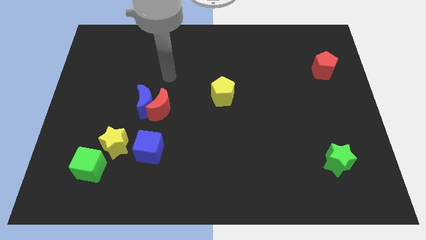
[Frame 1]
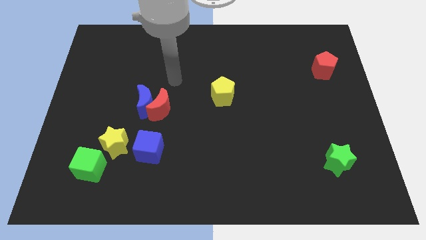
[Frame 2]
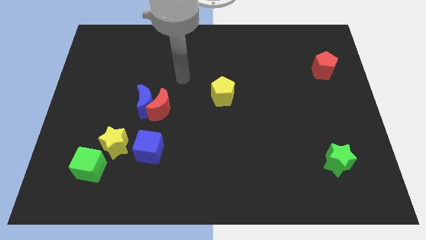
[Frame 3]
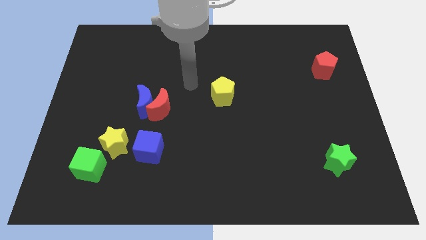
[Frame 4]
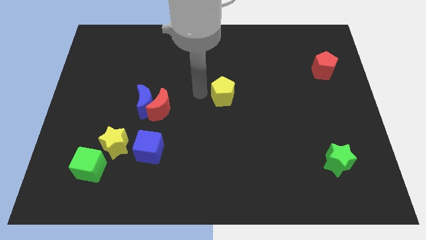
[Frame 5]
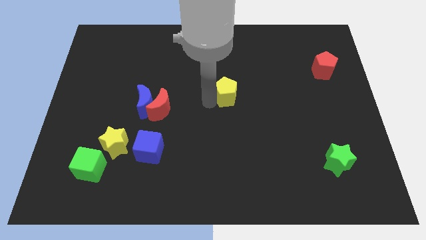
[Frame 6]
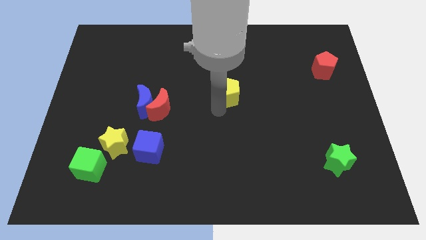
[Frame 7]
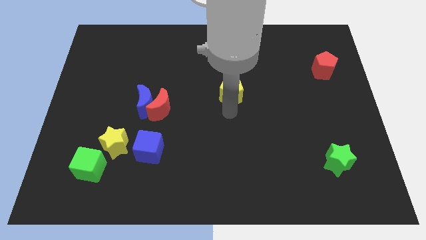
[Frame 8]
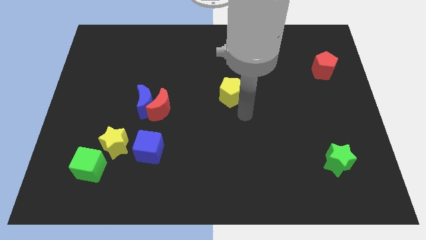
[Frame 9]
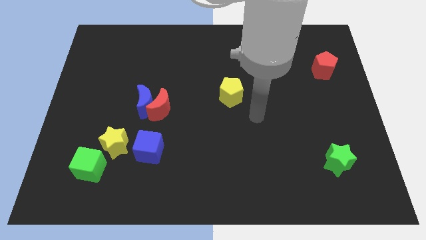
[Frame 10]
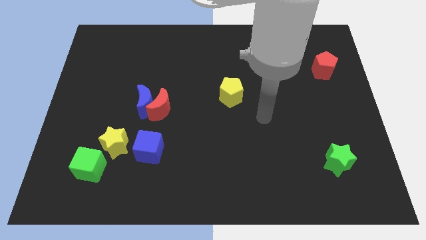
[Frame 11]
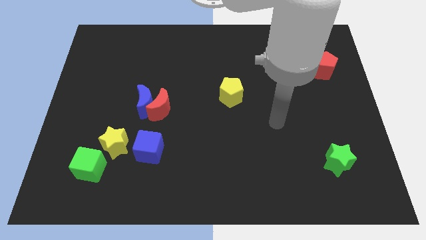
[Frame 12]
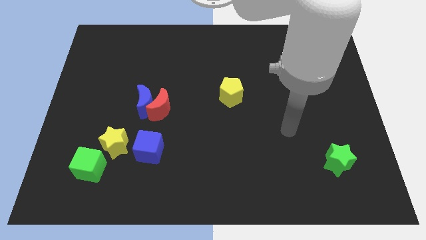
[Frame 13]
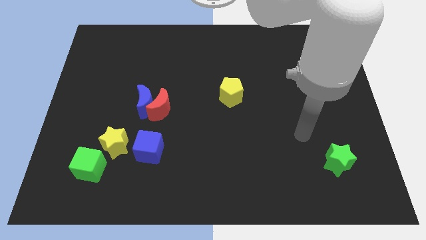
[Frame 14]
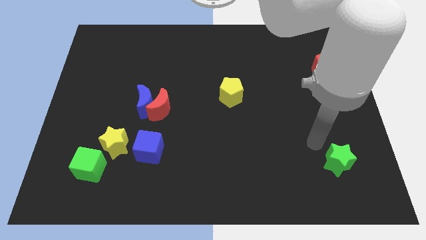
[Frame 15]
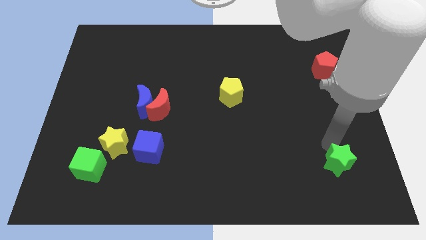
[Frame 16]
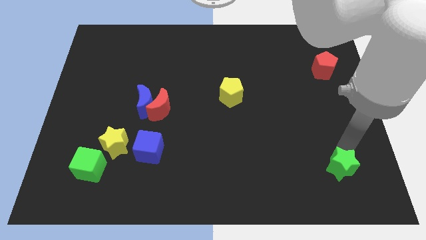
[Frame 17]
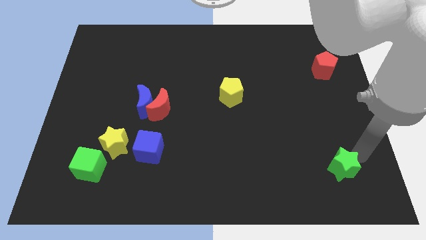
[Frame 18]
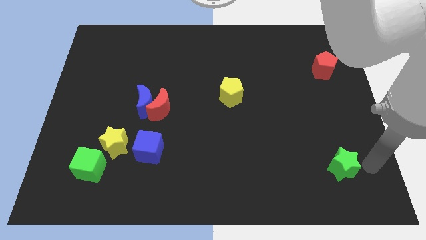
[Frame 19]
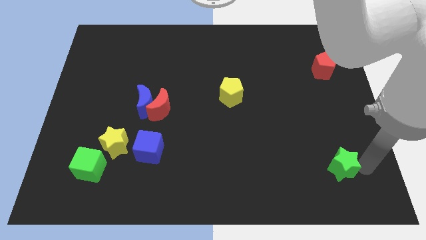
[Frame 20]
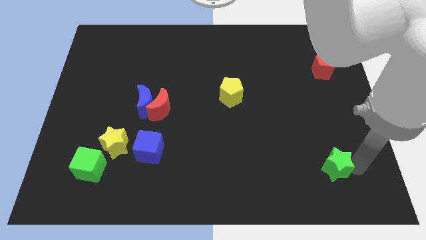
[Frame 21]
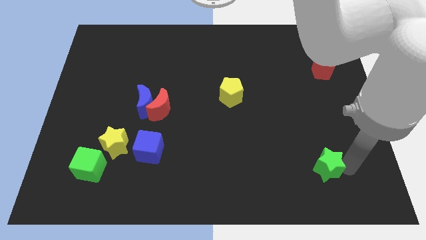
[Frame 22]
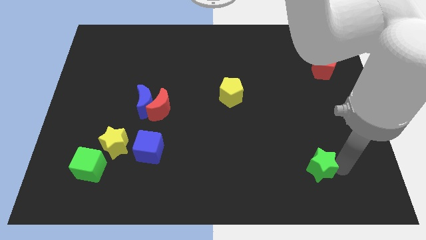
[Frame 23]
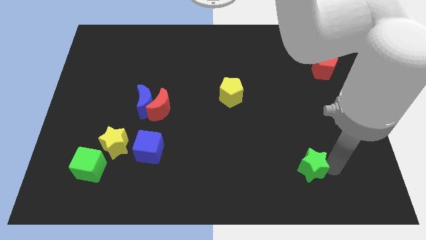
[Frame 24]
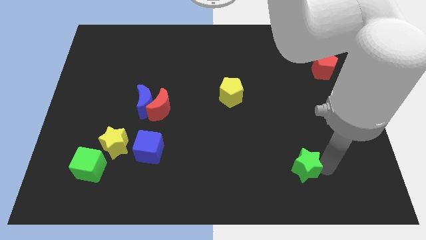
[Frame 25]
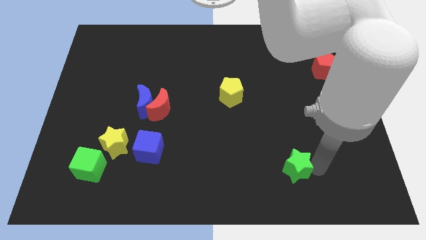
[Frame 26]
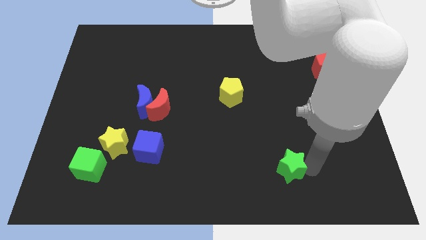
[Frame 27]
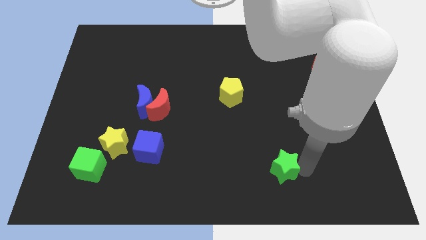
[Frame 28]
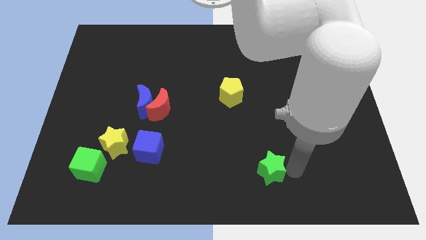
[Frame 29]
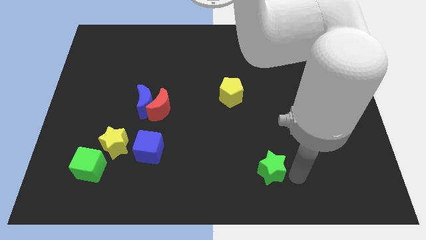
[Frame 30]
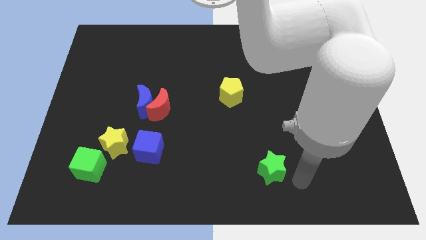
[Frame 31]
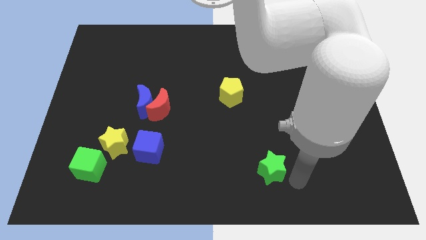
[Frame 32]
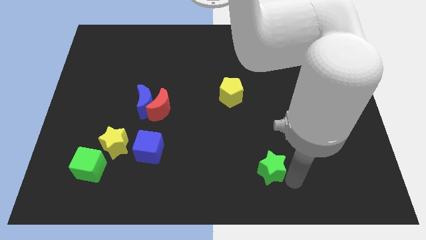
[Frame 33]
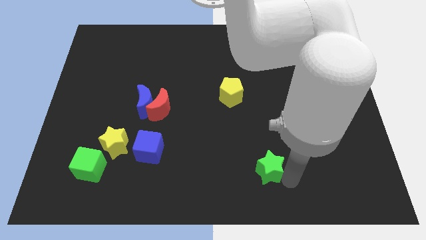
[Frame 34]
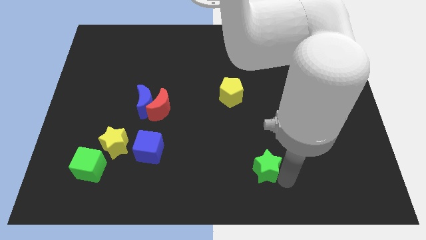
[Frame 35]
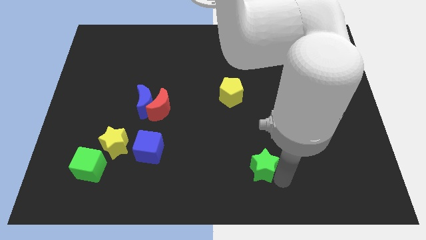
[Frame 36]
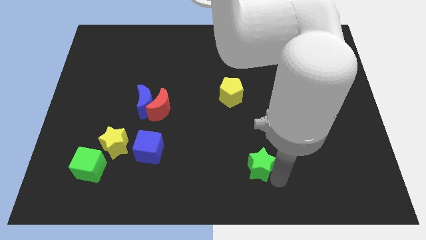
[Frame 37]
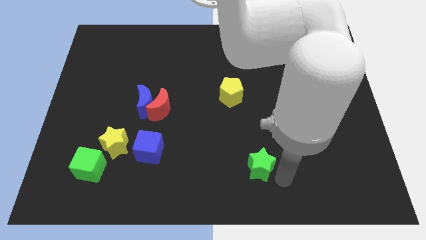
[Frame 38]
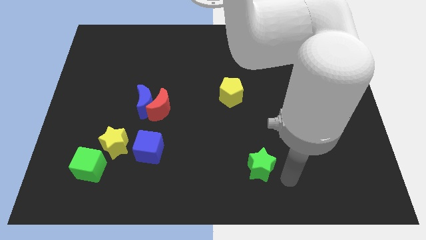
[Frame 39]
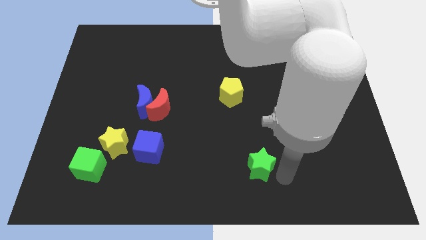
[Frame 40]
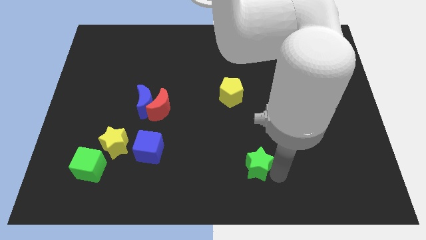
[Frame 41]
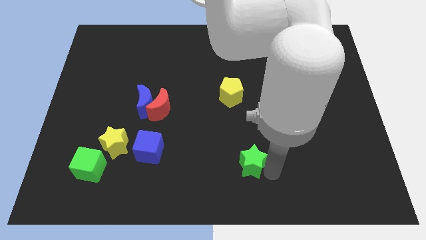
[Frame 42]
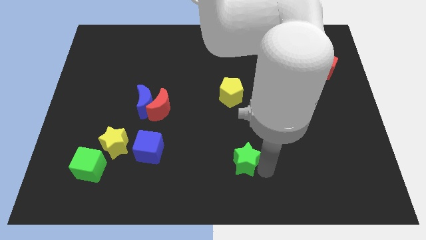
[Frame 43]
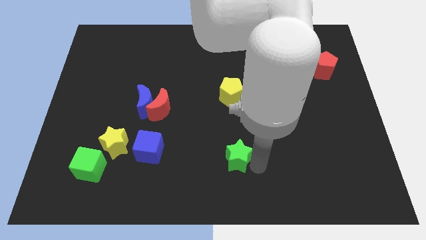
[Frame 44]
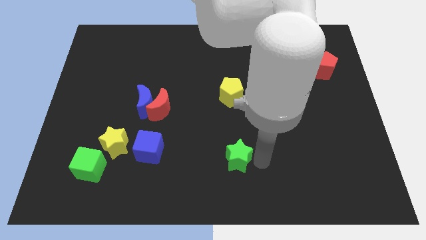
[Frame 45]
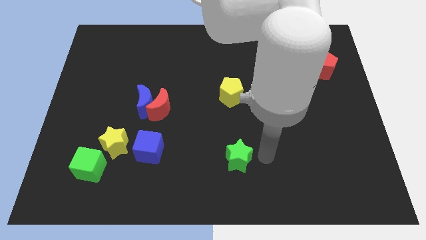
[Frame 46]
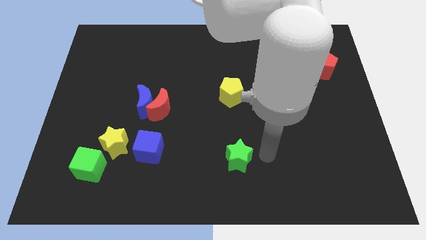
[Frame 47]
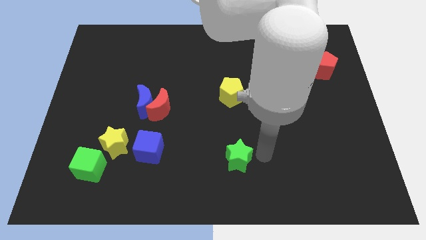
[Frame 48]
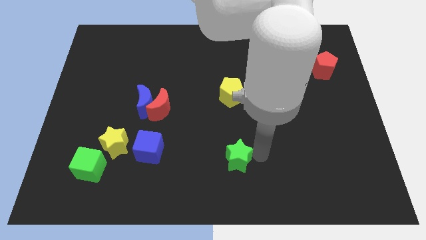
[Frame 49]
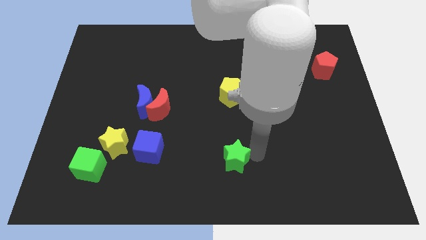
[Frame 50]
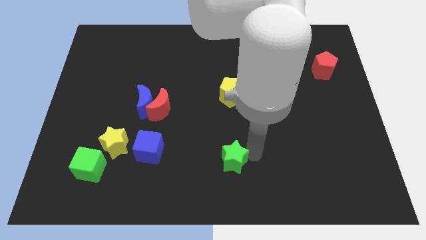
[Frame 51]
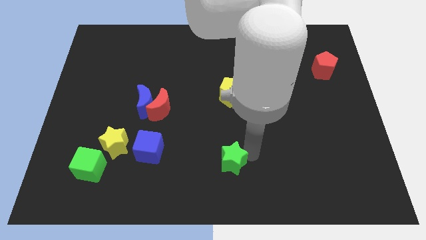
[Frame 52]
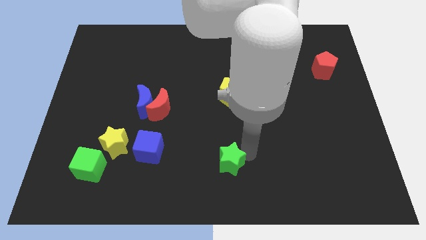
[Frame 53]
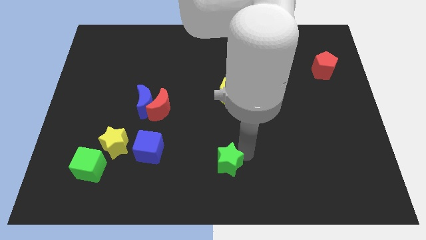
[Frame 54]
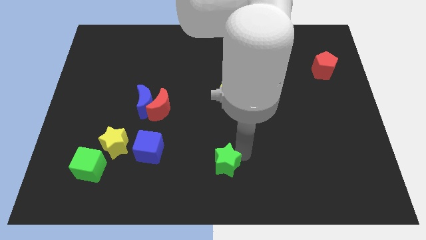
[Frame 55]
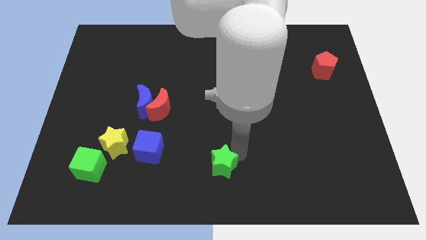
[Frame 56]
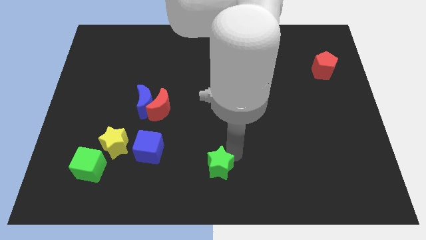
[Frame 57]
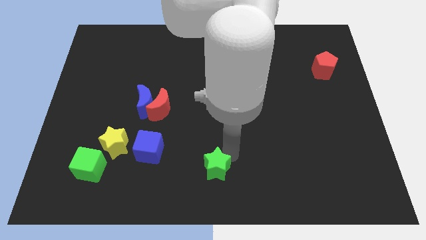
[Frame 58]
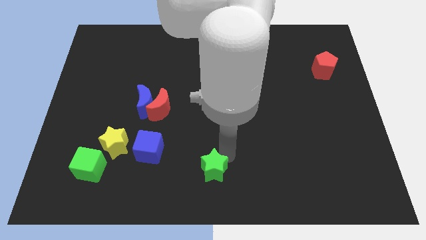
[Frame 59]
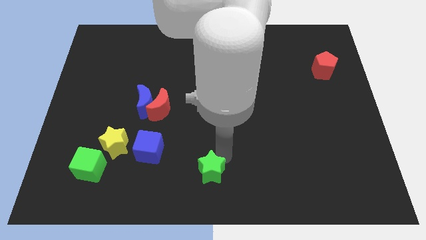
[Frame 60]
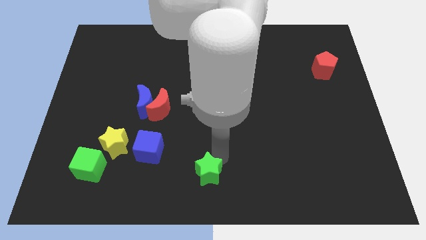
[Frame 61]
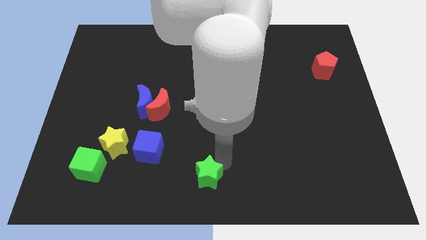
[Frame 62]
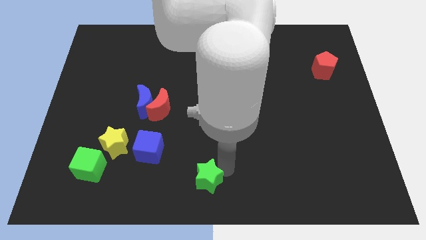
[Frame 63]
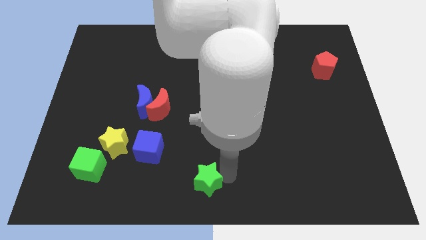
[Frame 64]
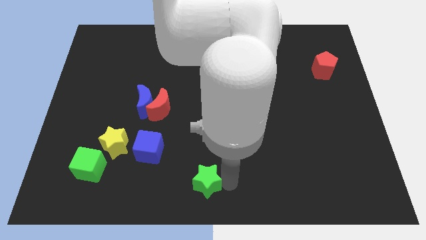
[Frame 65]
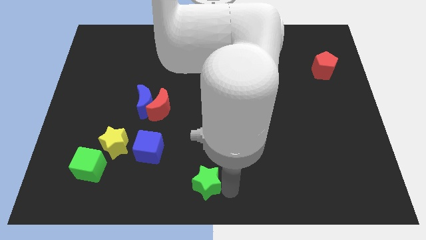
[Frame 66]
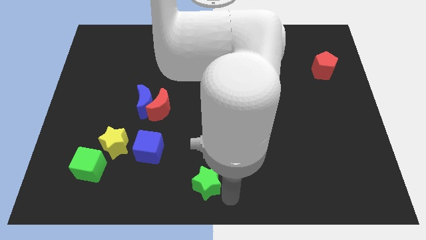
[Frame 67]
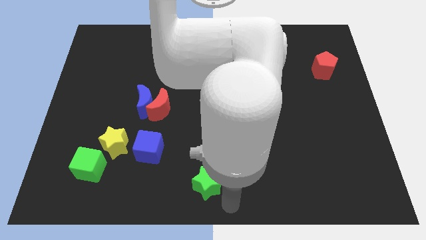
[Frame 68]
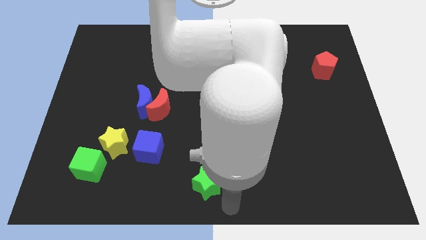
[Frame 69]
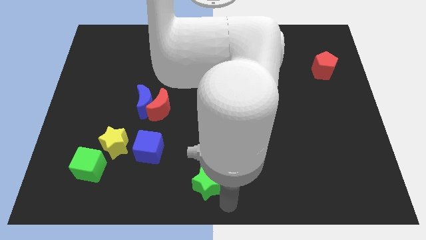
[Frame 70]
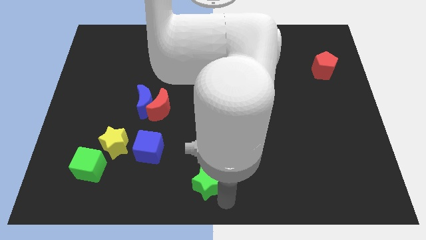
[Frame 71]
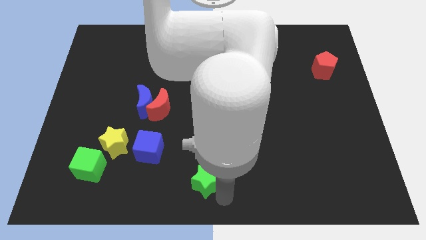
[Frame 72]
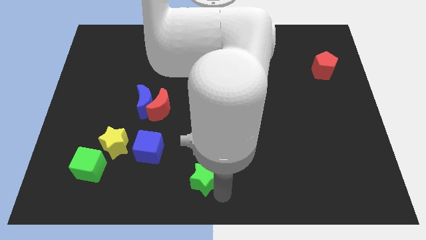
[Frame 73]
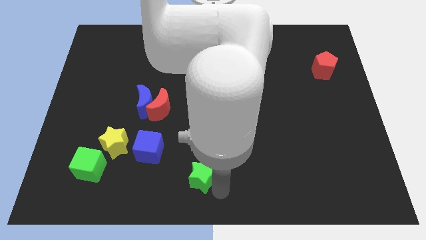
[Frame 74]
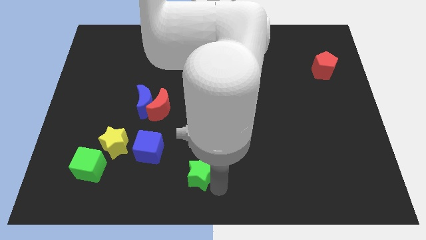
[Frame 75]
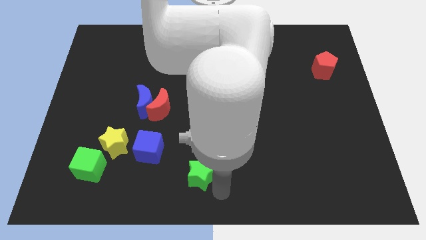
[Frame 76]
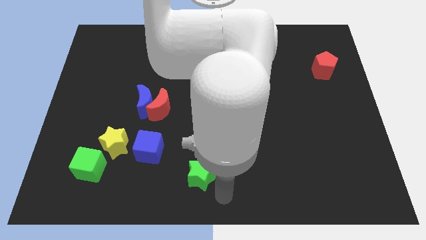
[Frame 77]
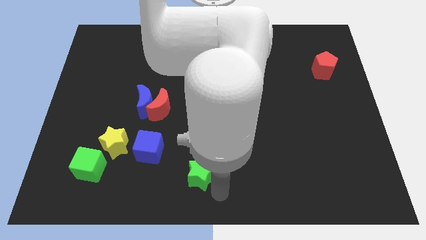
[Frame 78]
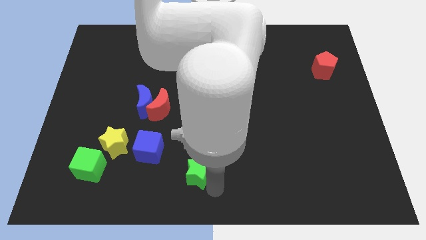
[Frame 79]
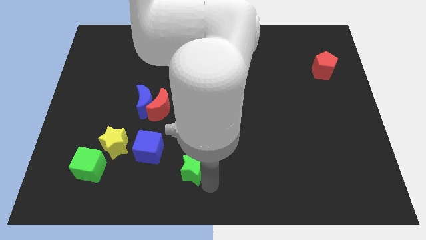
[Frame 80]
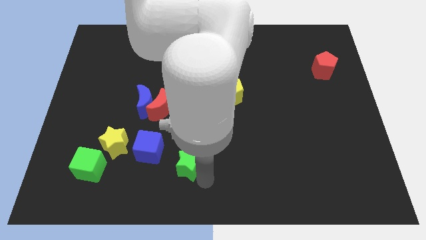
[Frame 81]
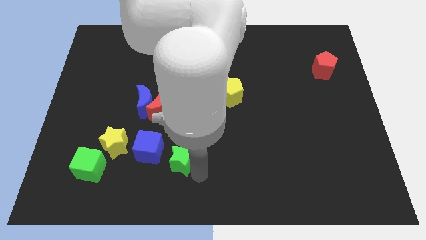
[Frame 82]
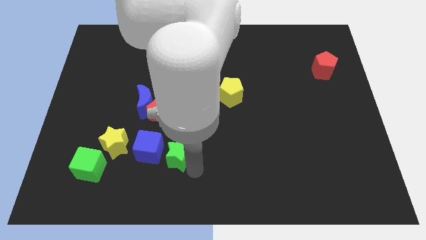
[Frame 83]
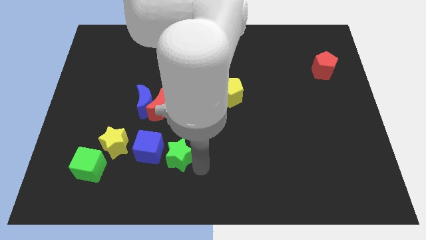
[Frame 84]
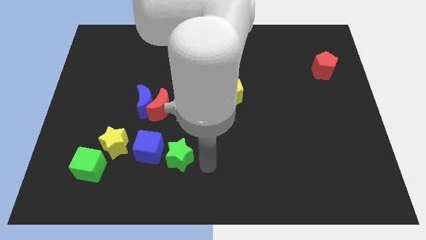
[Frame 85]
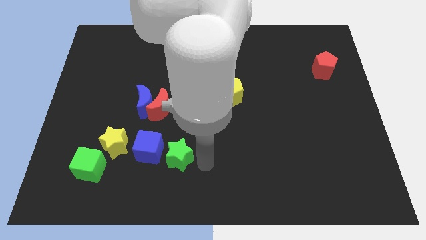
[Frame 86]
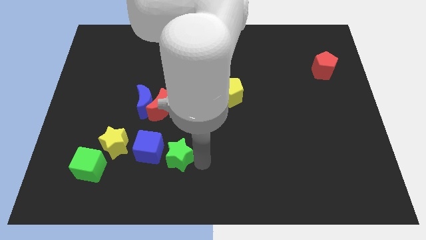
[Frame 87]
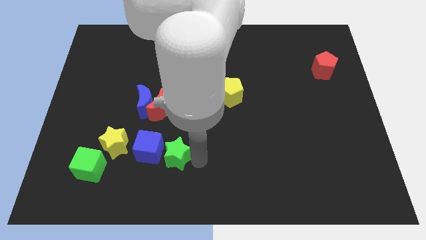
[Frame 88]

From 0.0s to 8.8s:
slide the green star towards the blue cube
